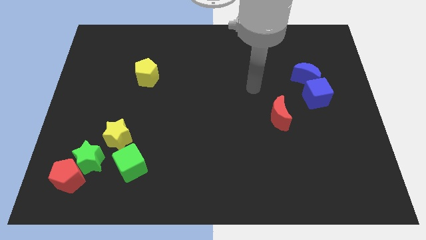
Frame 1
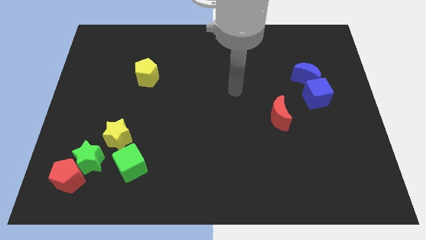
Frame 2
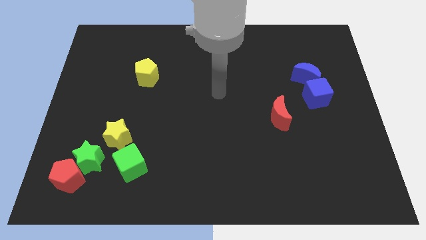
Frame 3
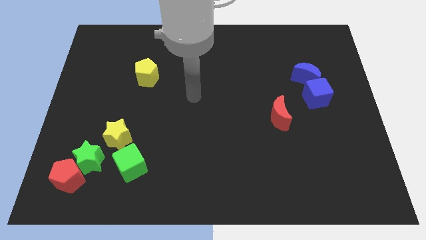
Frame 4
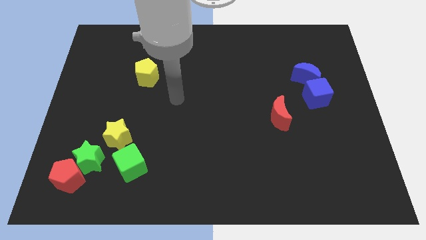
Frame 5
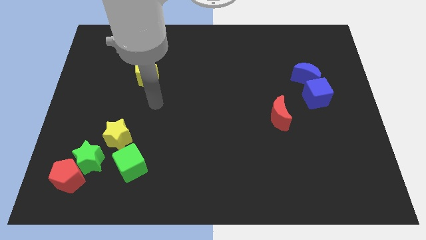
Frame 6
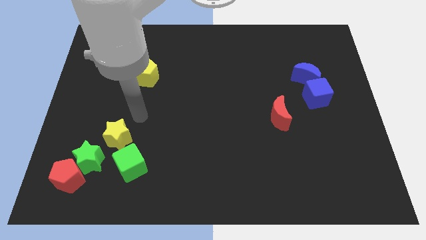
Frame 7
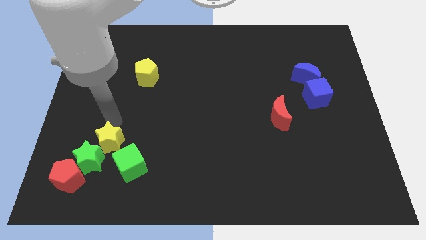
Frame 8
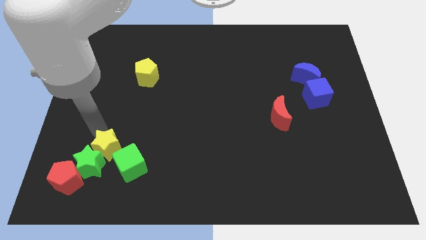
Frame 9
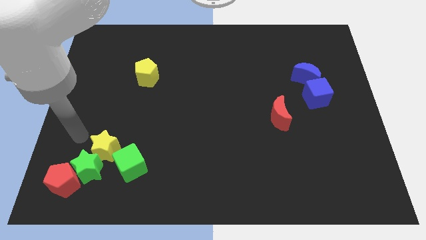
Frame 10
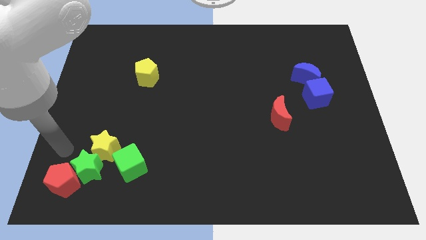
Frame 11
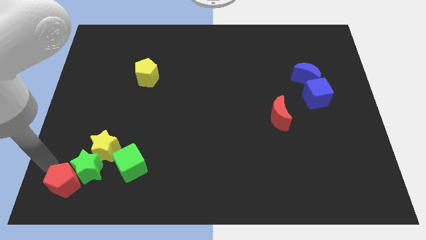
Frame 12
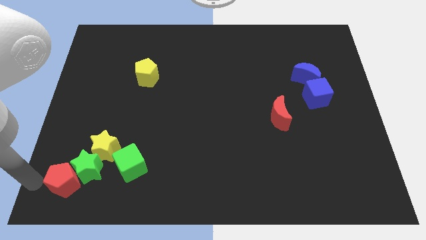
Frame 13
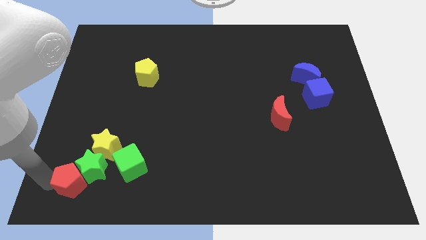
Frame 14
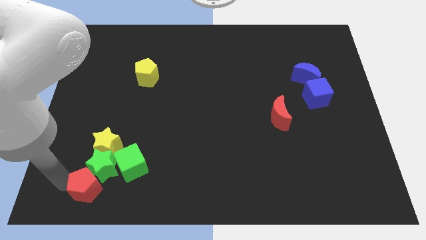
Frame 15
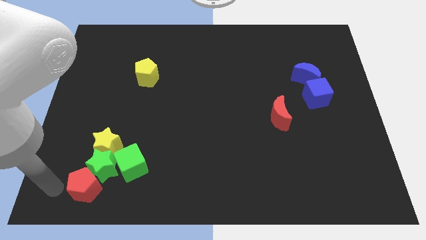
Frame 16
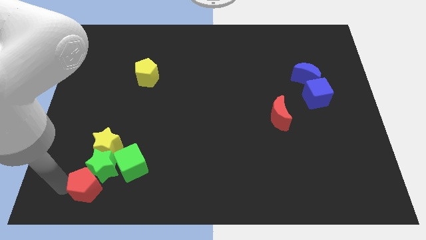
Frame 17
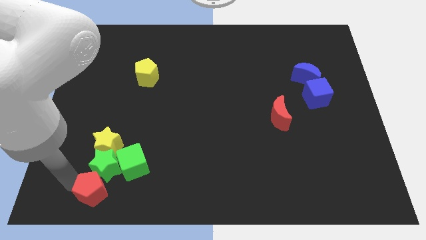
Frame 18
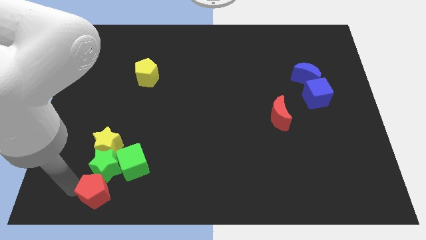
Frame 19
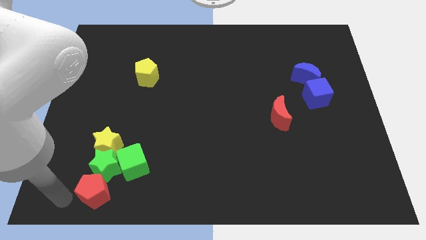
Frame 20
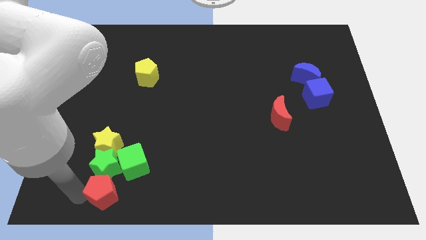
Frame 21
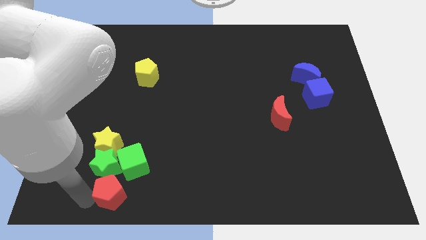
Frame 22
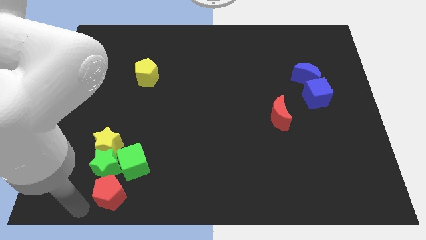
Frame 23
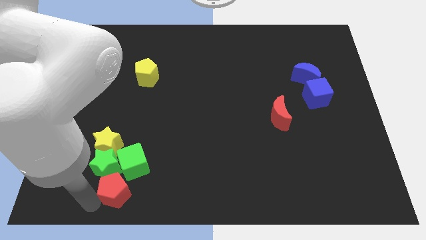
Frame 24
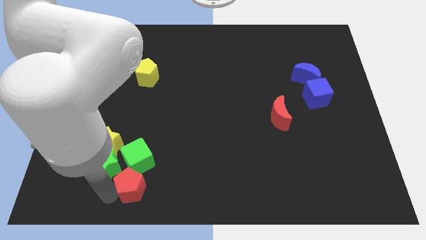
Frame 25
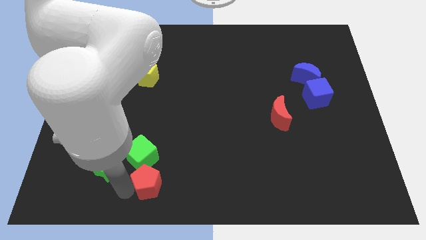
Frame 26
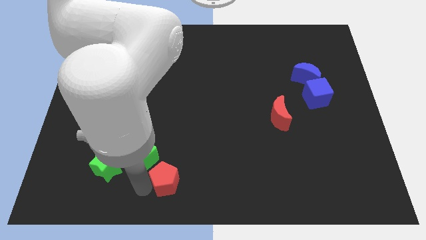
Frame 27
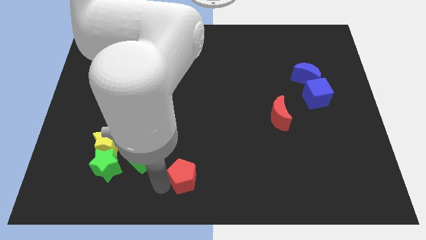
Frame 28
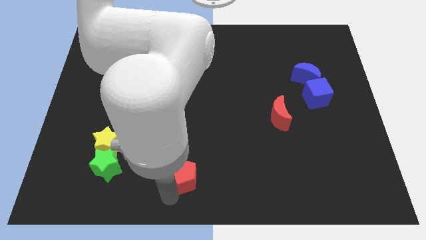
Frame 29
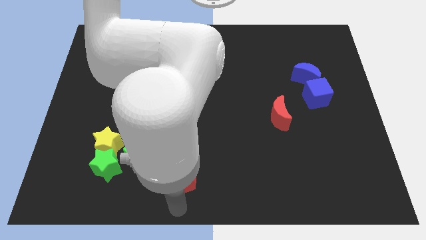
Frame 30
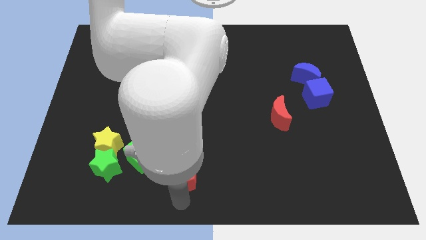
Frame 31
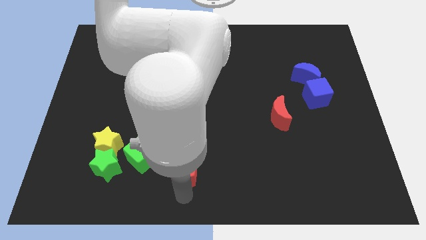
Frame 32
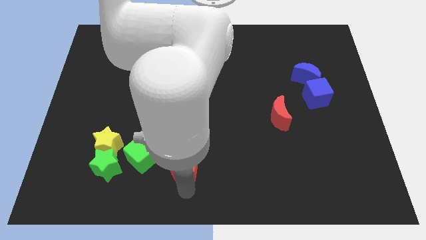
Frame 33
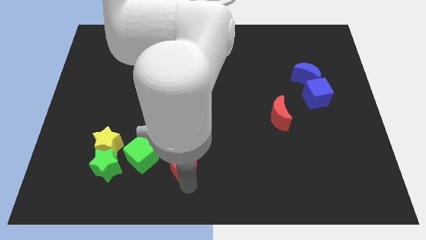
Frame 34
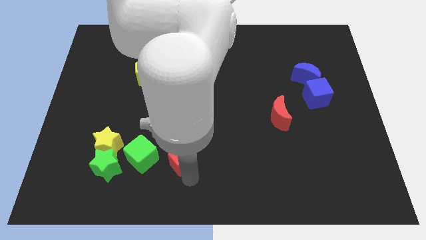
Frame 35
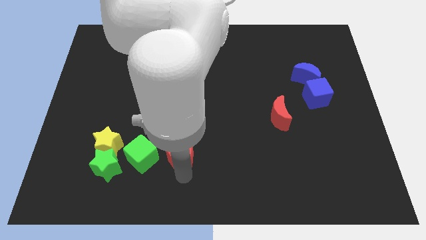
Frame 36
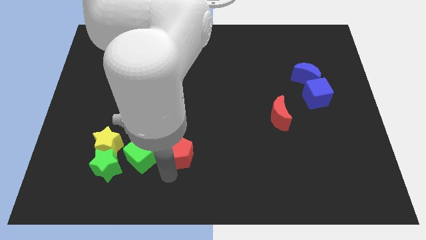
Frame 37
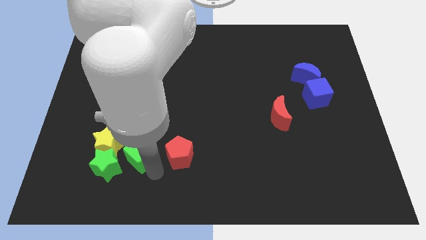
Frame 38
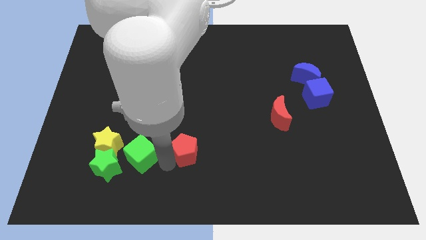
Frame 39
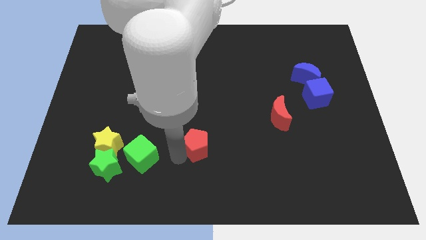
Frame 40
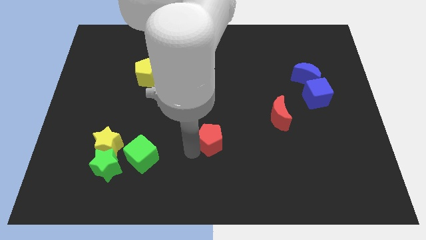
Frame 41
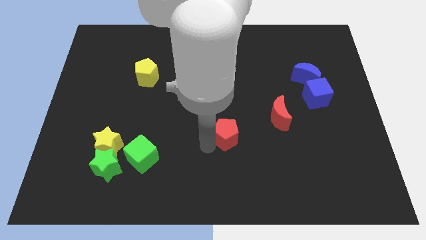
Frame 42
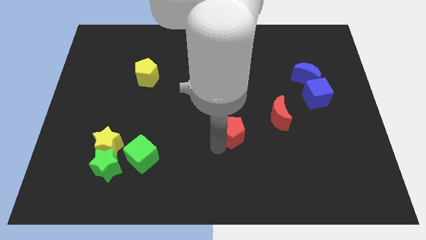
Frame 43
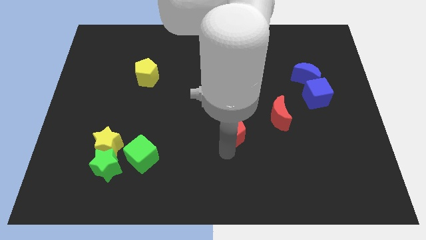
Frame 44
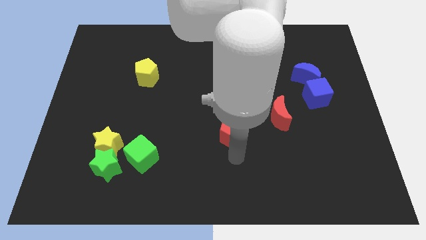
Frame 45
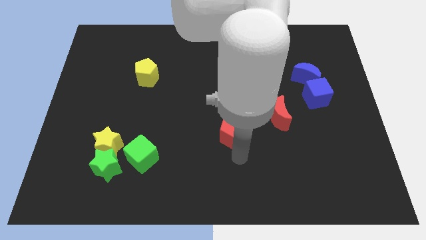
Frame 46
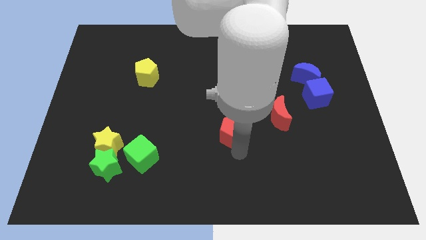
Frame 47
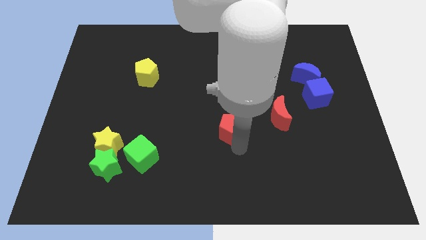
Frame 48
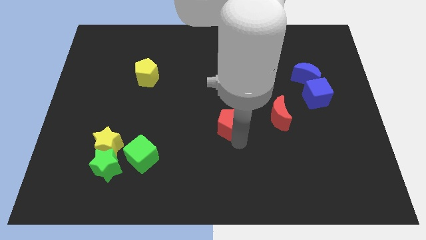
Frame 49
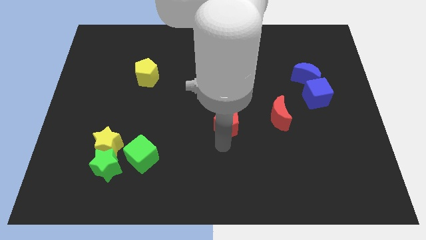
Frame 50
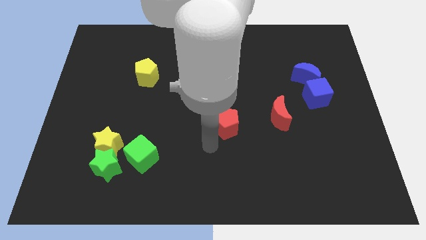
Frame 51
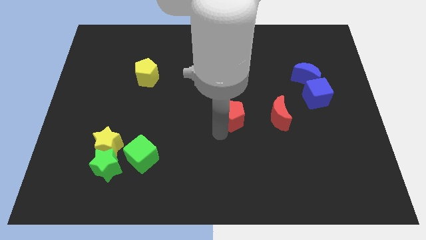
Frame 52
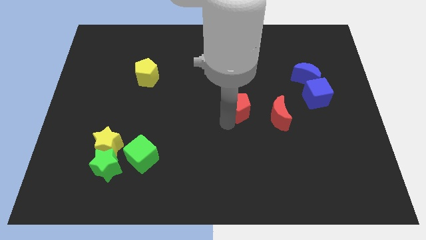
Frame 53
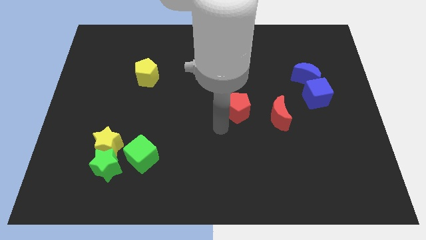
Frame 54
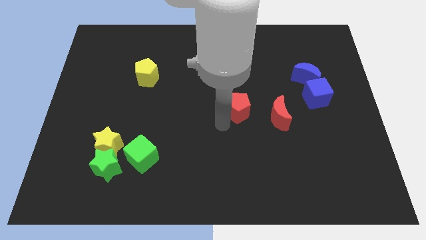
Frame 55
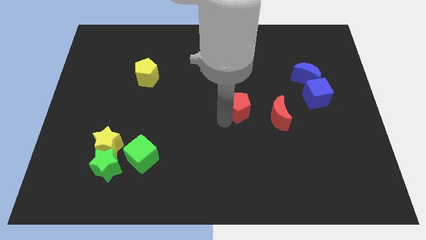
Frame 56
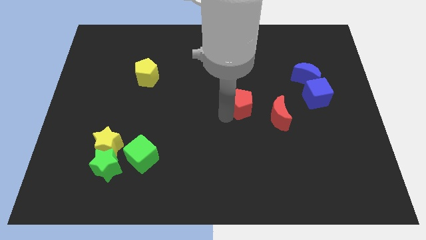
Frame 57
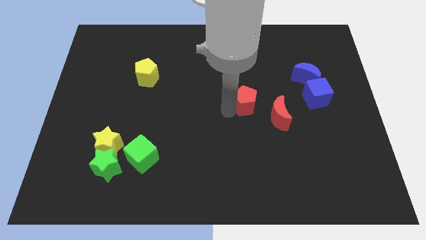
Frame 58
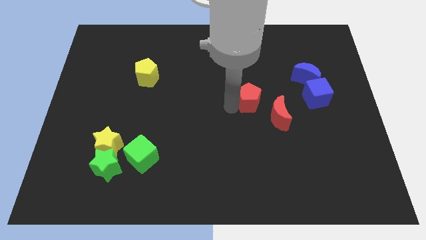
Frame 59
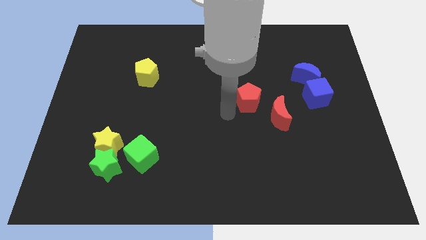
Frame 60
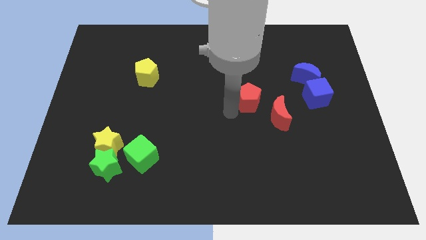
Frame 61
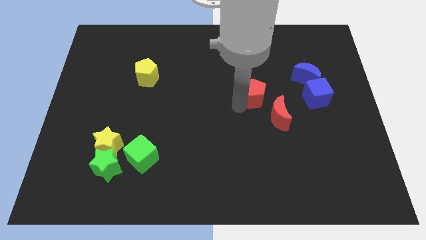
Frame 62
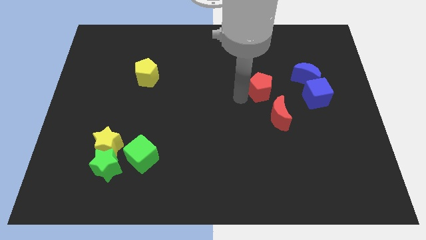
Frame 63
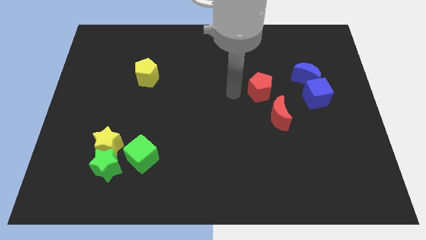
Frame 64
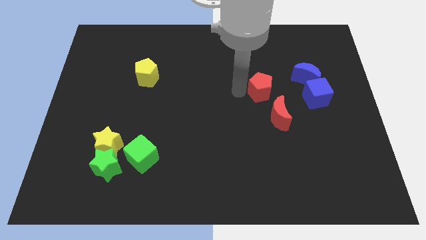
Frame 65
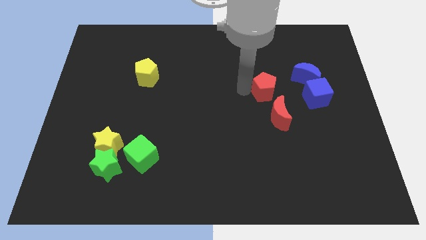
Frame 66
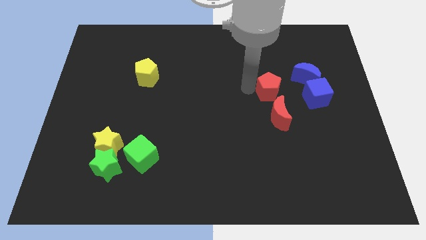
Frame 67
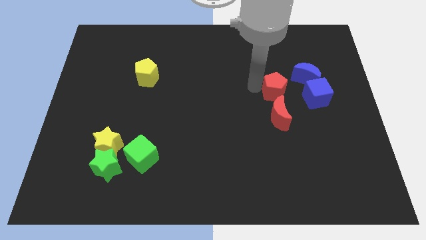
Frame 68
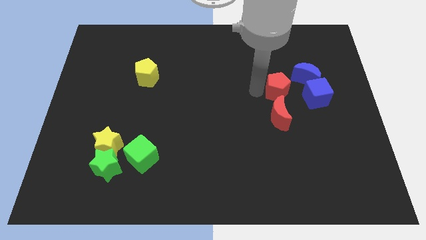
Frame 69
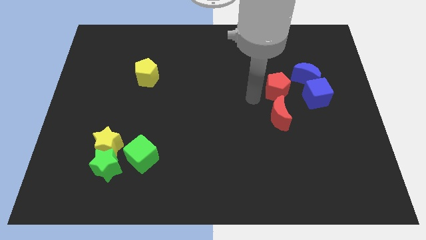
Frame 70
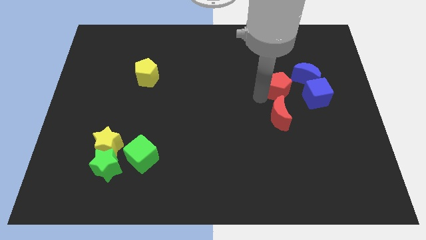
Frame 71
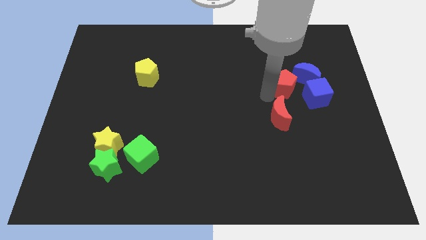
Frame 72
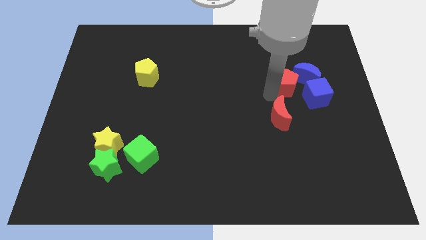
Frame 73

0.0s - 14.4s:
slide the red pentagon next to the blue moon

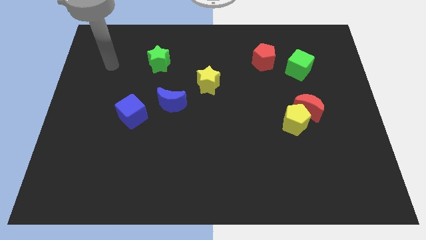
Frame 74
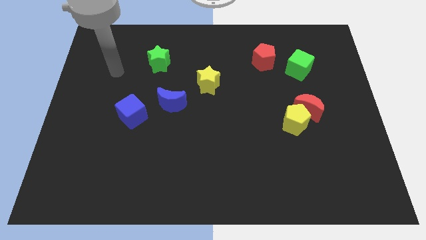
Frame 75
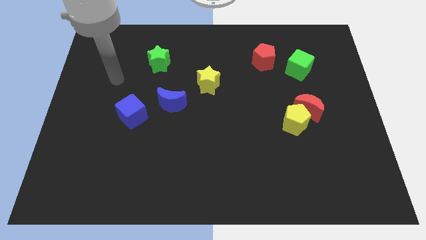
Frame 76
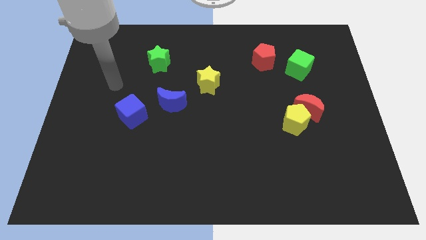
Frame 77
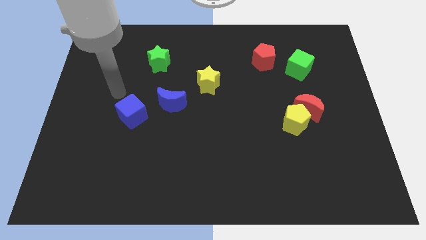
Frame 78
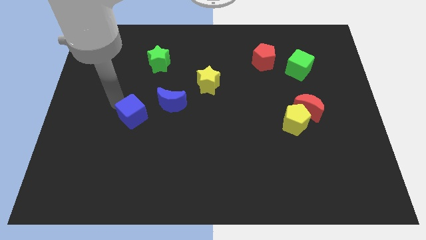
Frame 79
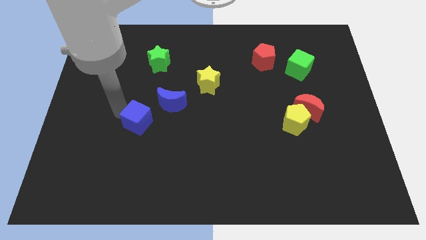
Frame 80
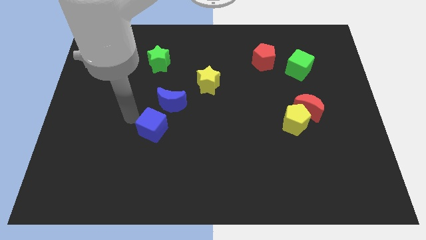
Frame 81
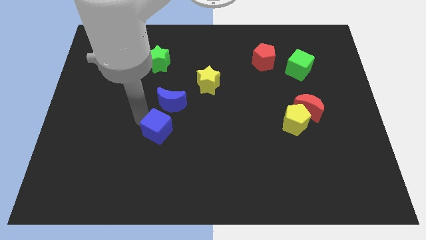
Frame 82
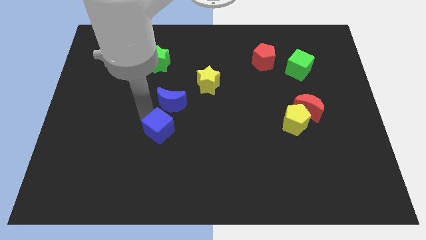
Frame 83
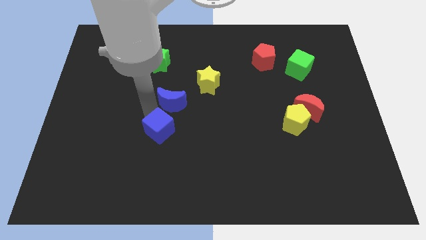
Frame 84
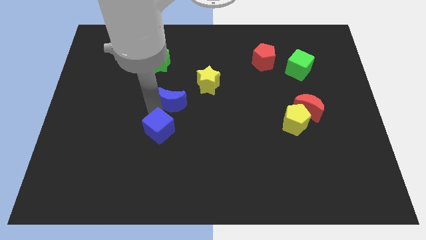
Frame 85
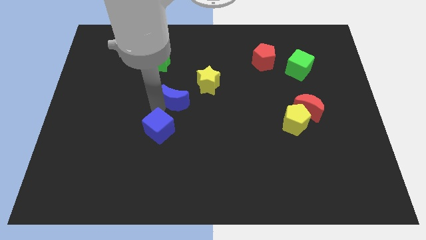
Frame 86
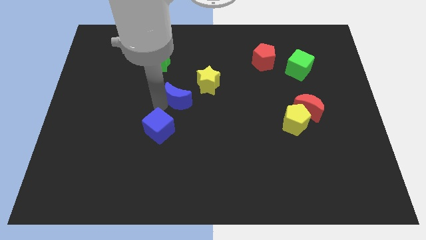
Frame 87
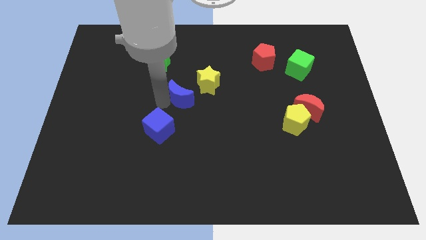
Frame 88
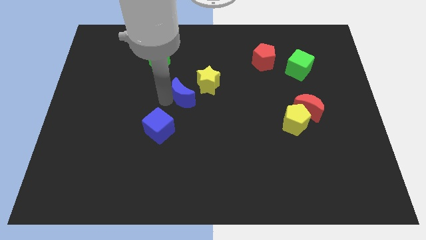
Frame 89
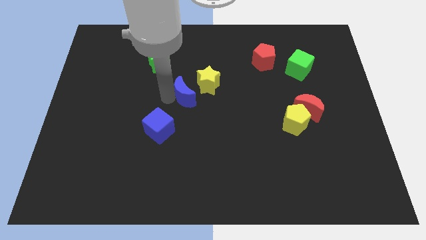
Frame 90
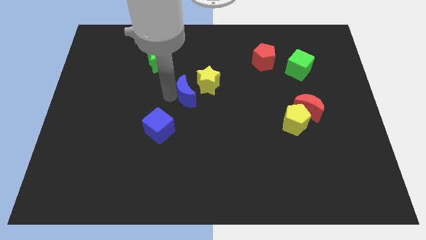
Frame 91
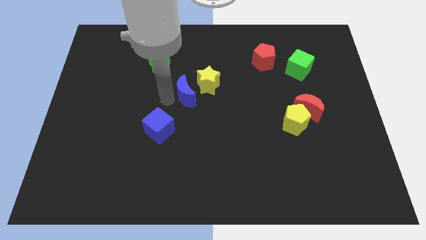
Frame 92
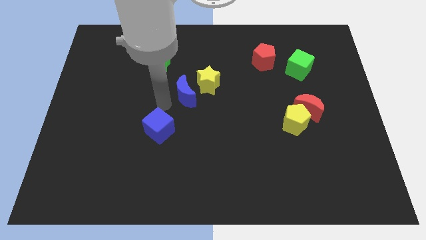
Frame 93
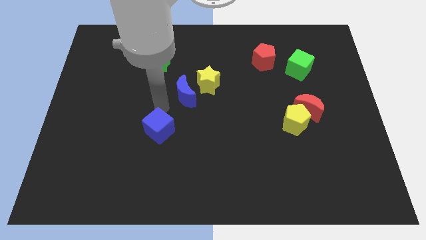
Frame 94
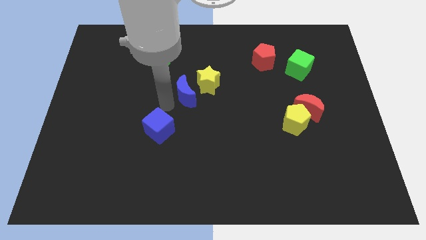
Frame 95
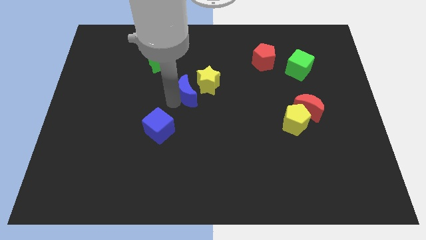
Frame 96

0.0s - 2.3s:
push the blue moon close to the yellow star
